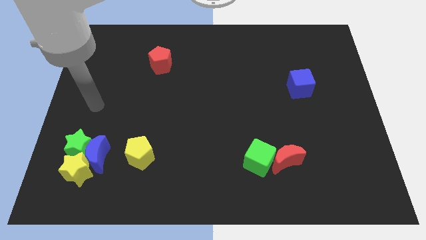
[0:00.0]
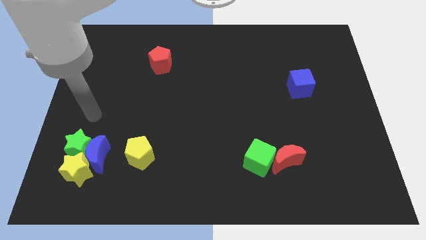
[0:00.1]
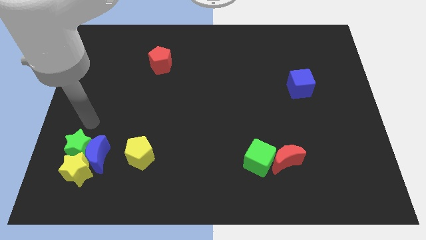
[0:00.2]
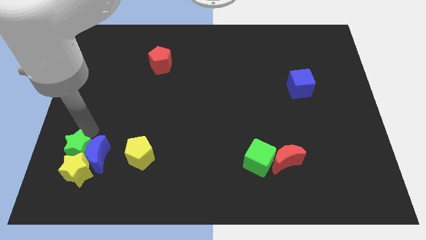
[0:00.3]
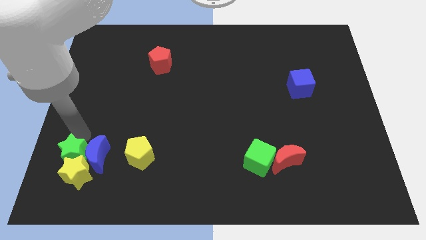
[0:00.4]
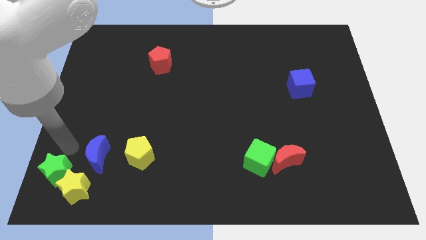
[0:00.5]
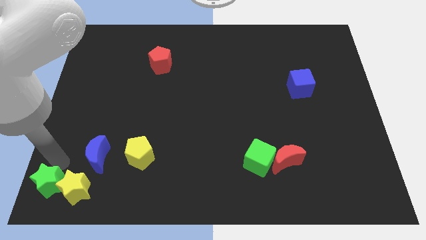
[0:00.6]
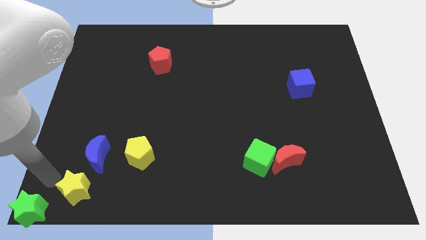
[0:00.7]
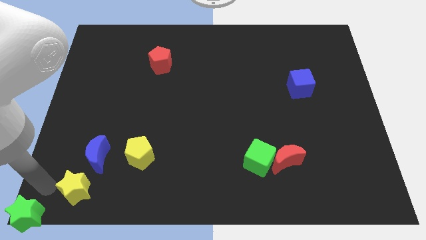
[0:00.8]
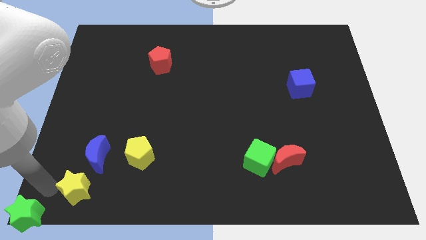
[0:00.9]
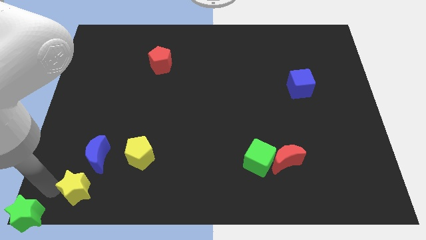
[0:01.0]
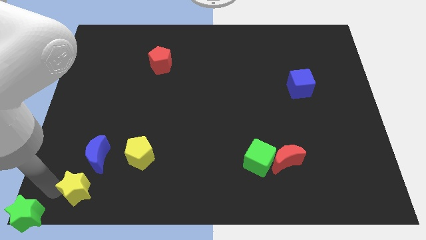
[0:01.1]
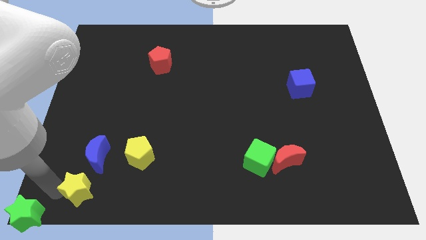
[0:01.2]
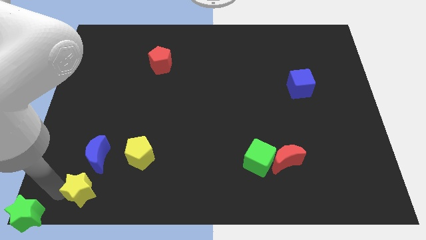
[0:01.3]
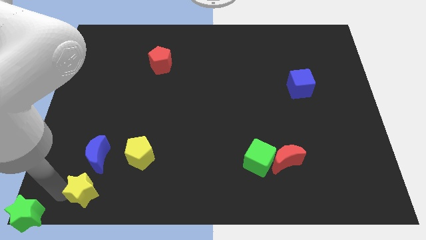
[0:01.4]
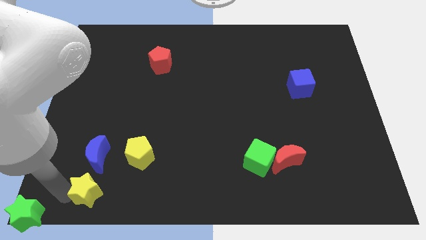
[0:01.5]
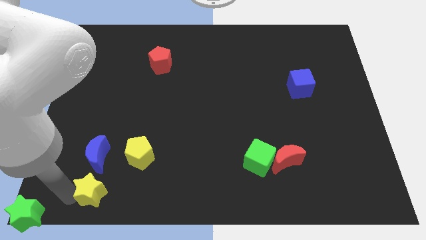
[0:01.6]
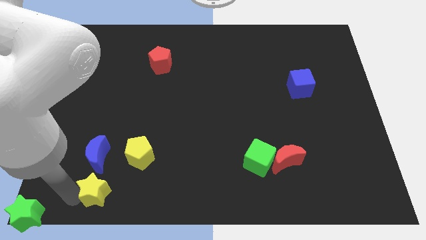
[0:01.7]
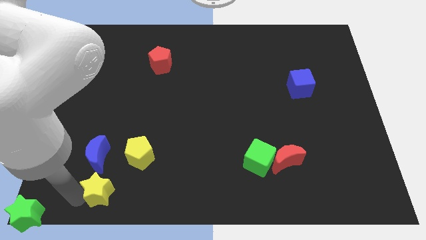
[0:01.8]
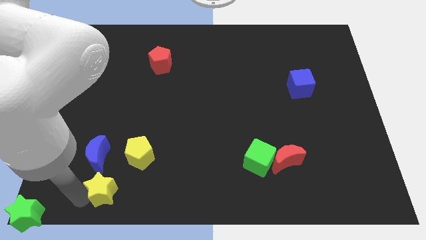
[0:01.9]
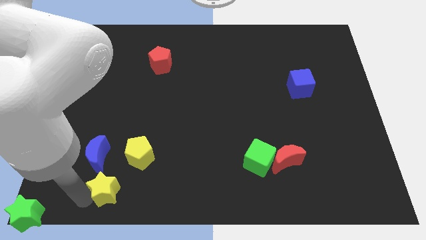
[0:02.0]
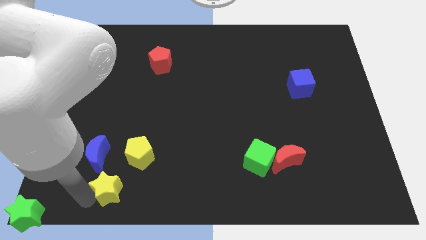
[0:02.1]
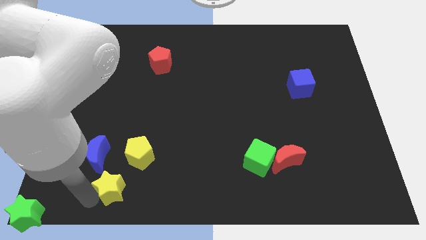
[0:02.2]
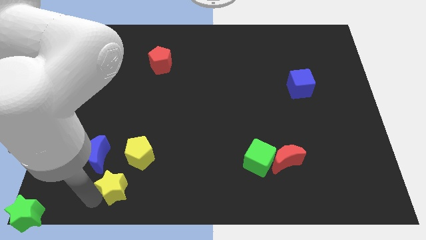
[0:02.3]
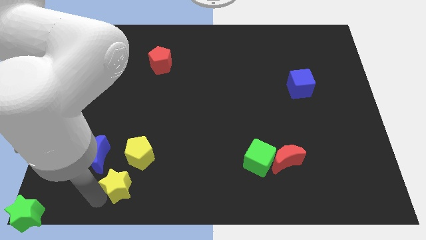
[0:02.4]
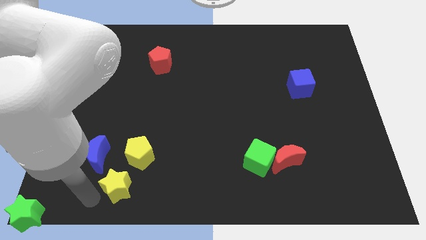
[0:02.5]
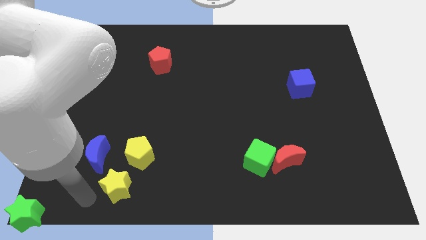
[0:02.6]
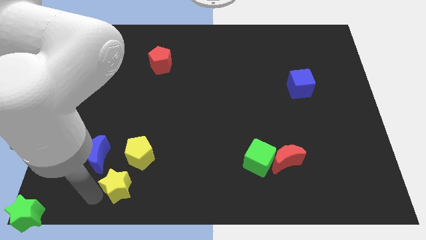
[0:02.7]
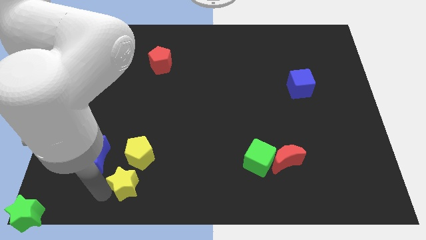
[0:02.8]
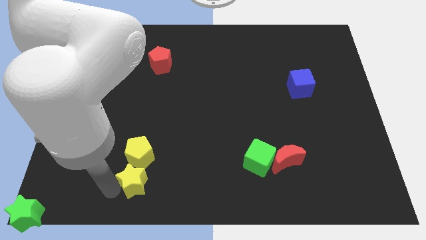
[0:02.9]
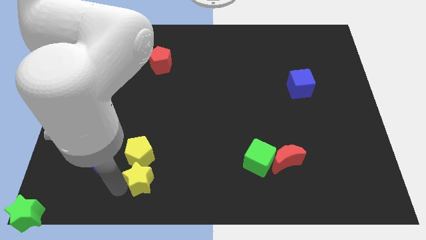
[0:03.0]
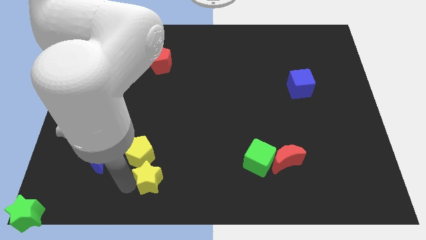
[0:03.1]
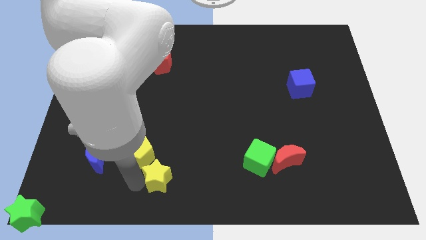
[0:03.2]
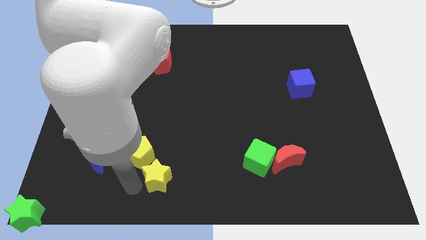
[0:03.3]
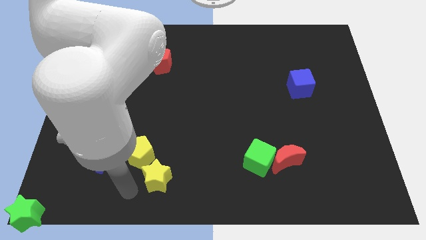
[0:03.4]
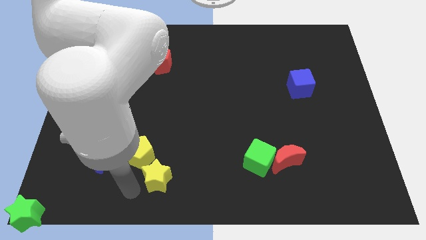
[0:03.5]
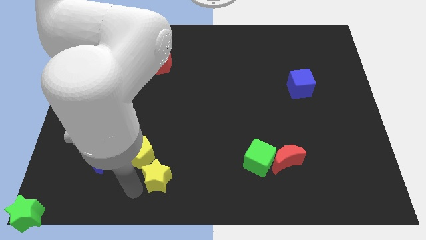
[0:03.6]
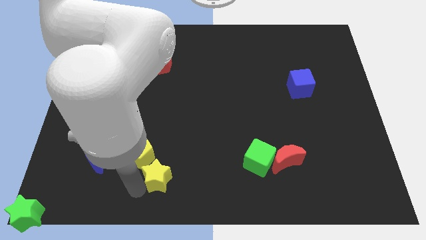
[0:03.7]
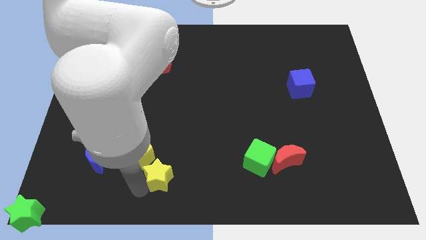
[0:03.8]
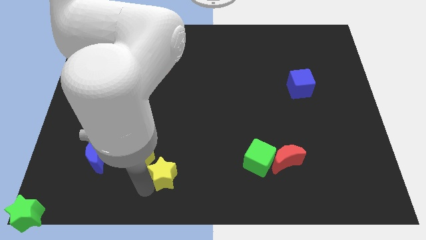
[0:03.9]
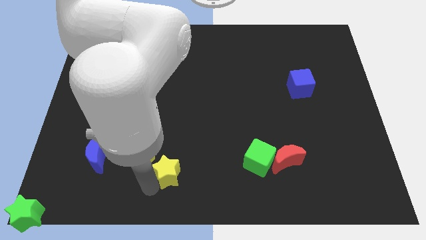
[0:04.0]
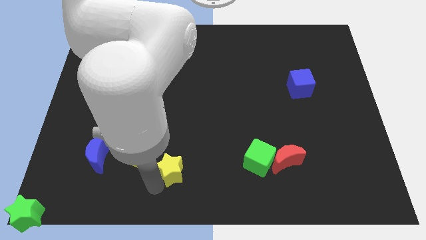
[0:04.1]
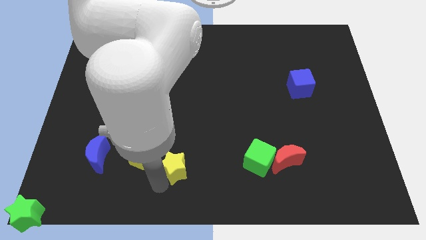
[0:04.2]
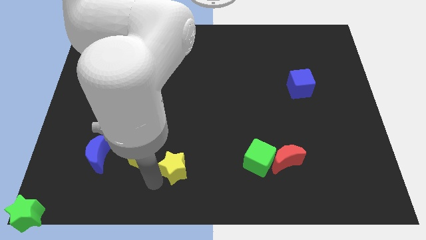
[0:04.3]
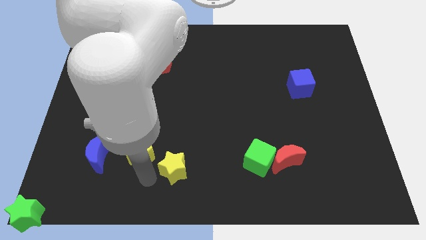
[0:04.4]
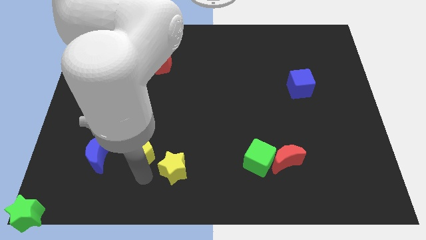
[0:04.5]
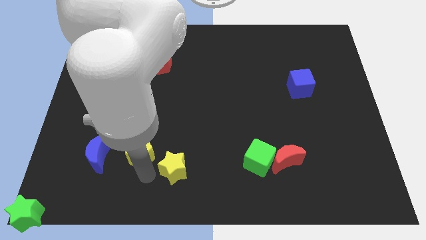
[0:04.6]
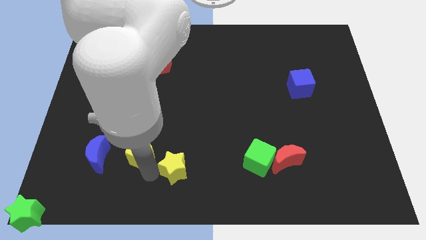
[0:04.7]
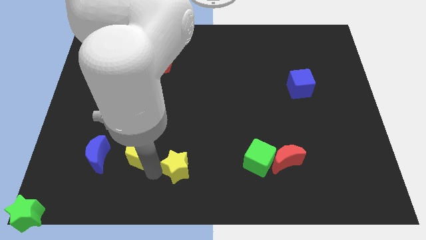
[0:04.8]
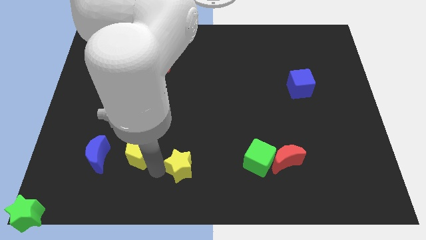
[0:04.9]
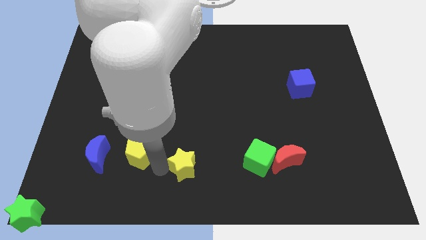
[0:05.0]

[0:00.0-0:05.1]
push the yellow star just left of the green cube

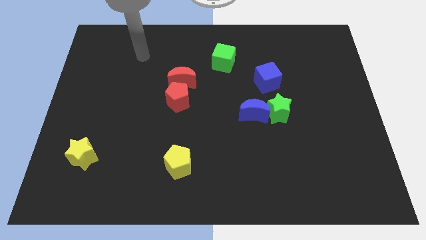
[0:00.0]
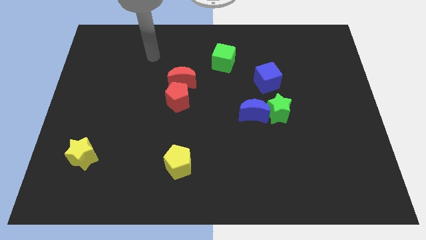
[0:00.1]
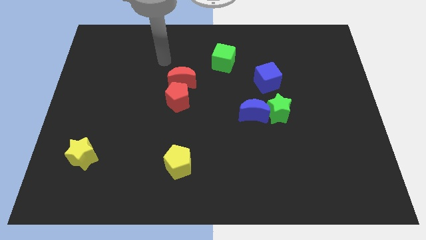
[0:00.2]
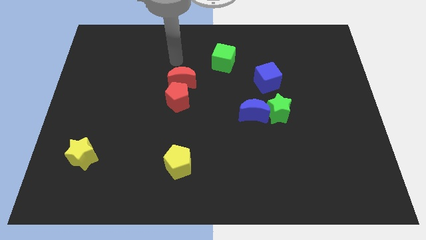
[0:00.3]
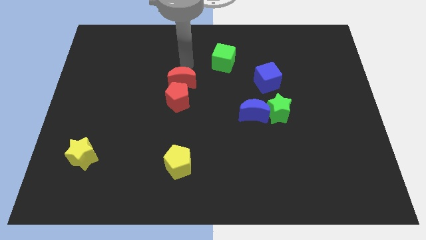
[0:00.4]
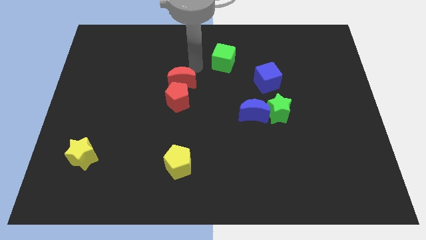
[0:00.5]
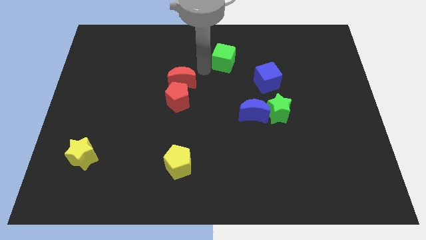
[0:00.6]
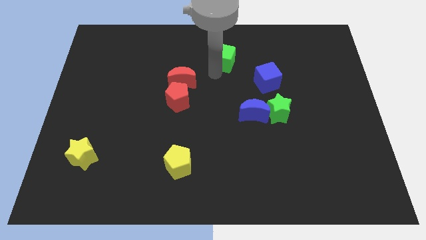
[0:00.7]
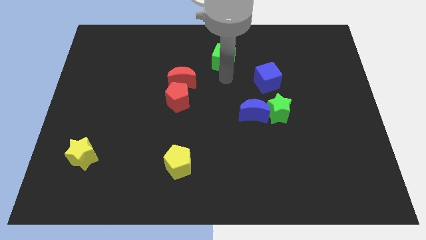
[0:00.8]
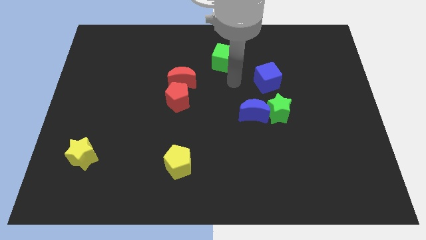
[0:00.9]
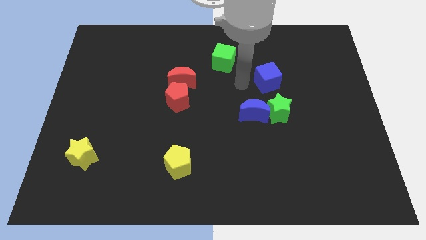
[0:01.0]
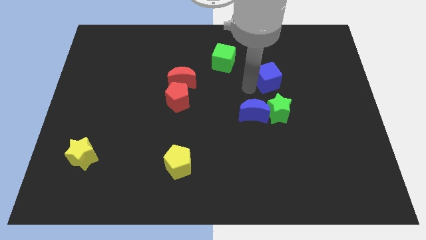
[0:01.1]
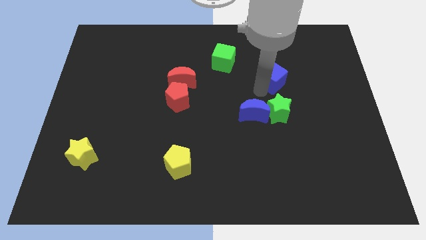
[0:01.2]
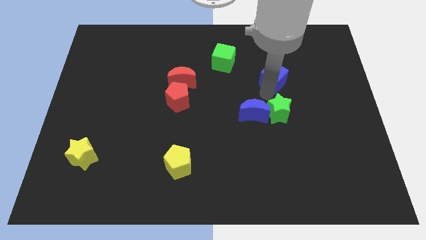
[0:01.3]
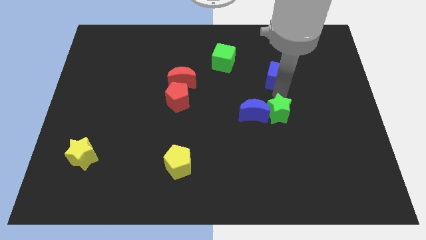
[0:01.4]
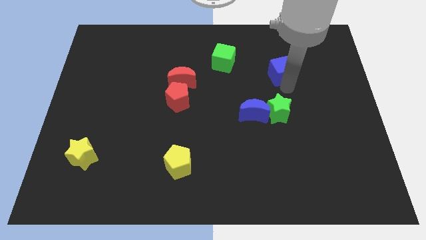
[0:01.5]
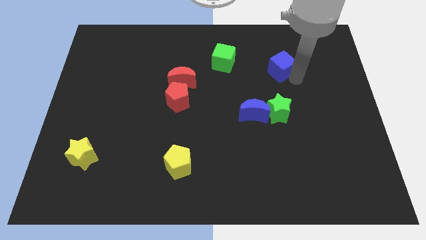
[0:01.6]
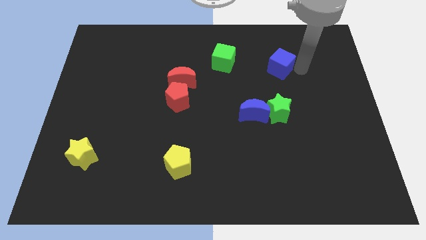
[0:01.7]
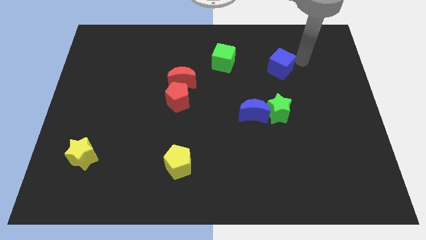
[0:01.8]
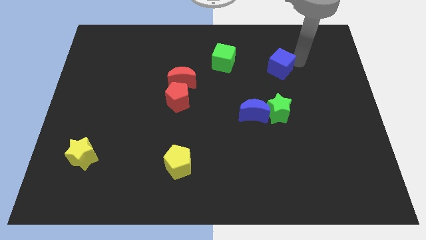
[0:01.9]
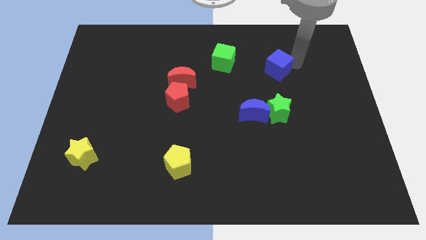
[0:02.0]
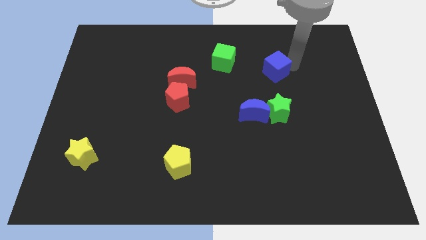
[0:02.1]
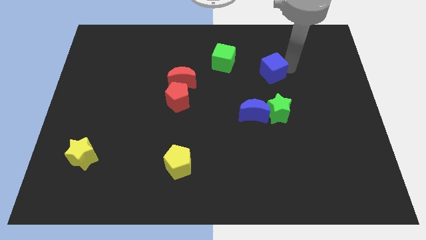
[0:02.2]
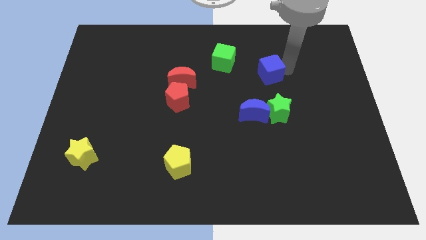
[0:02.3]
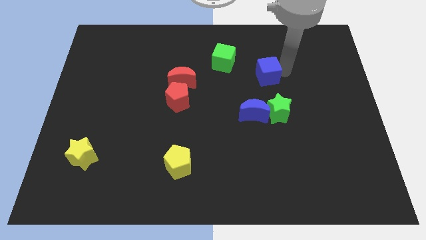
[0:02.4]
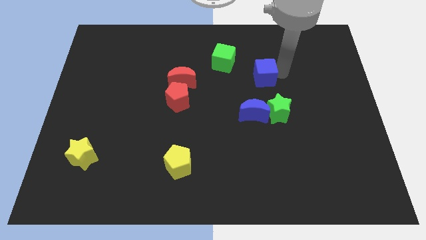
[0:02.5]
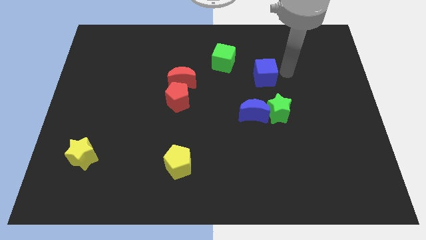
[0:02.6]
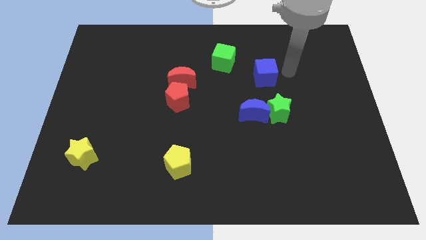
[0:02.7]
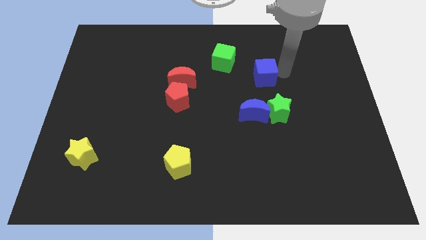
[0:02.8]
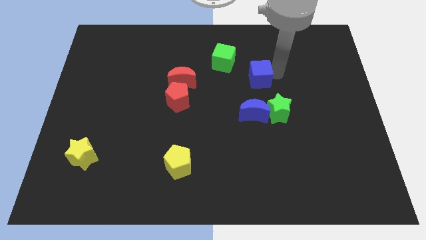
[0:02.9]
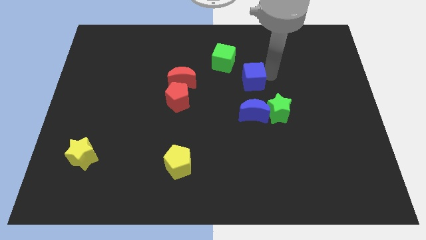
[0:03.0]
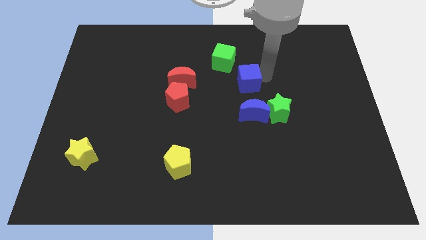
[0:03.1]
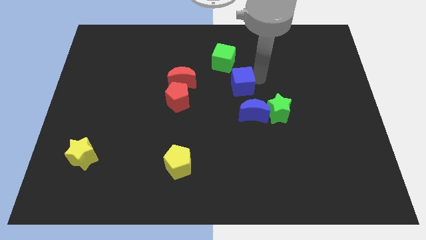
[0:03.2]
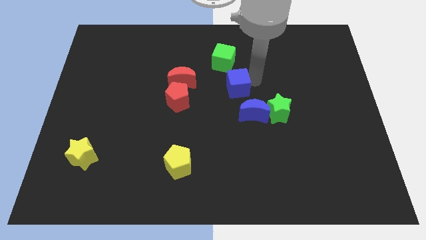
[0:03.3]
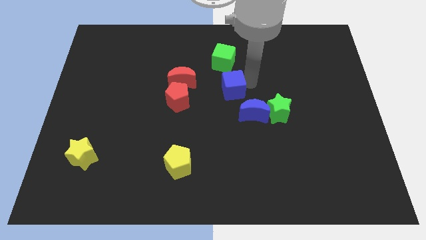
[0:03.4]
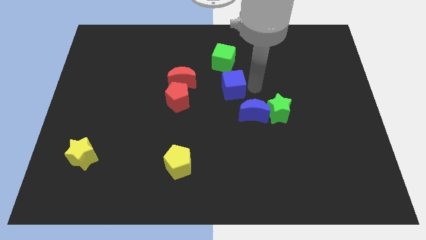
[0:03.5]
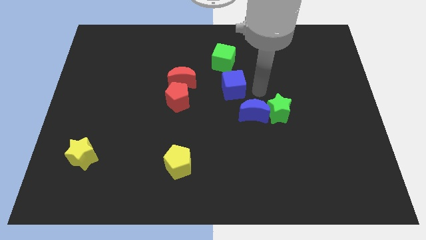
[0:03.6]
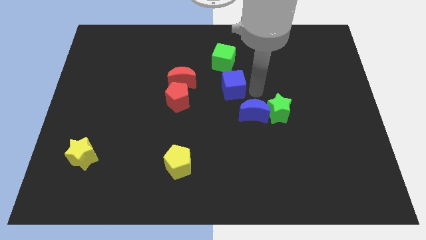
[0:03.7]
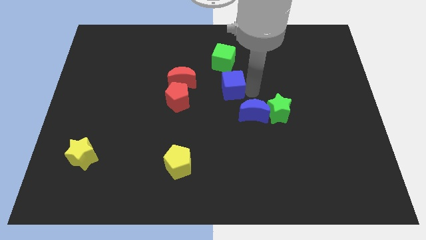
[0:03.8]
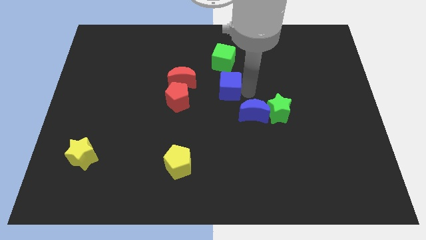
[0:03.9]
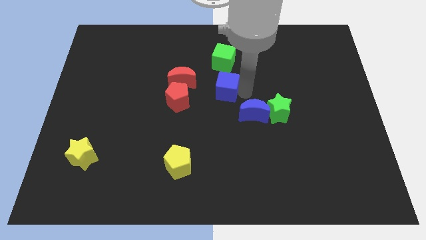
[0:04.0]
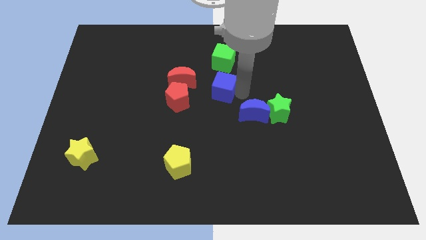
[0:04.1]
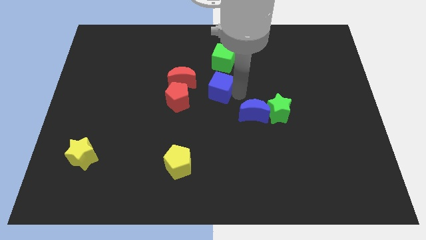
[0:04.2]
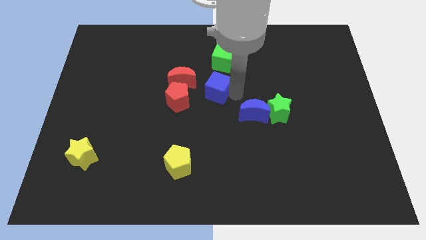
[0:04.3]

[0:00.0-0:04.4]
push the blue cube to the top right of the red pentagon
